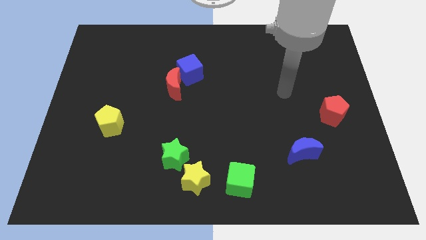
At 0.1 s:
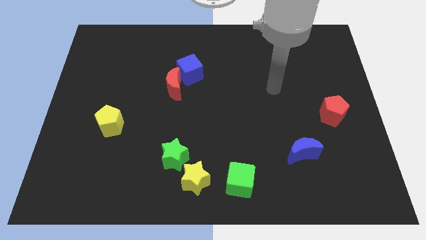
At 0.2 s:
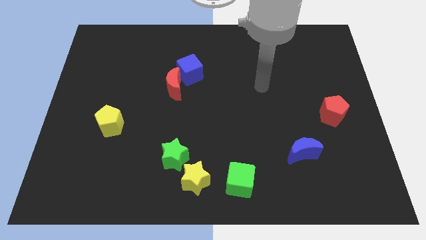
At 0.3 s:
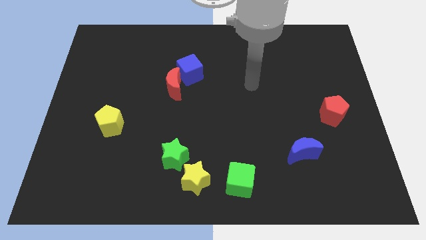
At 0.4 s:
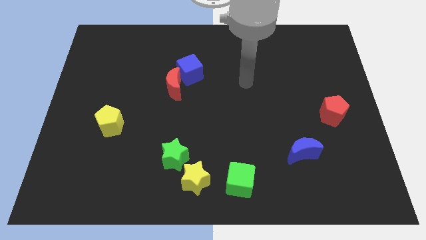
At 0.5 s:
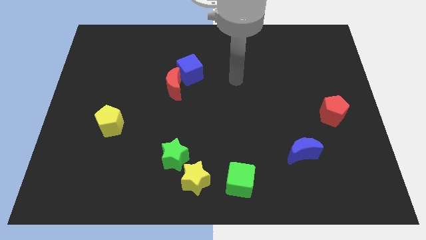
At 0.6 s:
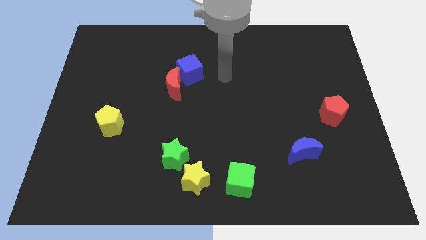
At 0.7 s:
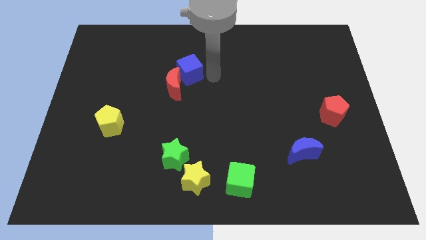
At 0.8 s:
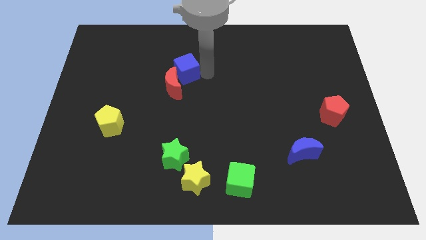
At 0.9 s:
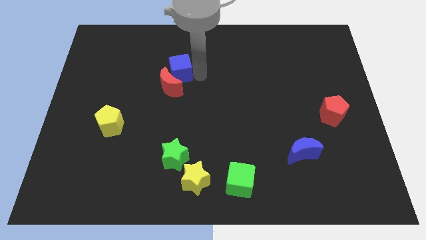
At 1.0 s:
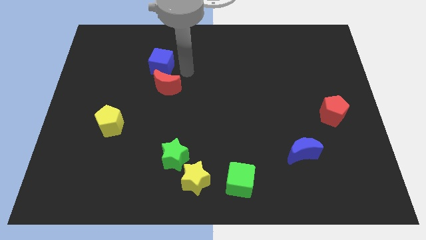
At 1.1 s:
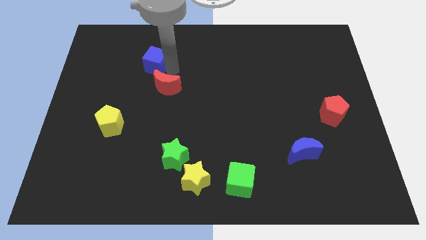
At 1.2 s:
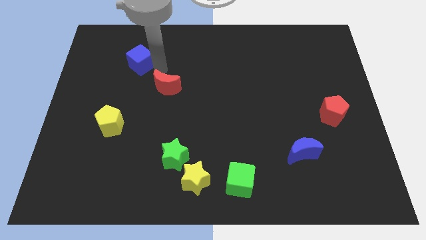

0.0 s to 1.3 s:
separate the red moon from the blue cube

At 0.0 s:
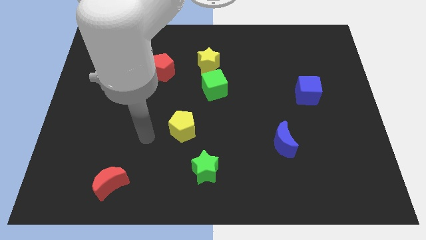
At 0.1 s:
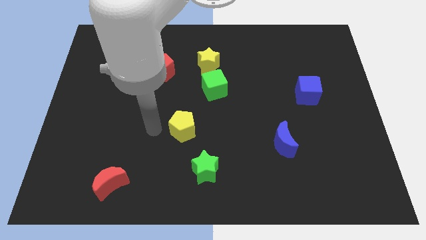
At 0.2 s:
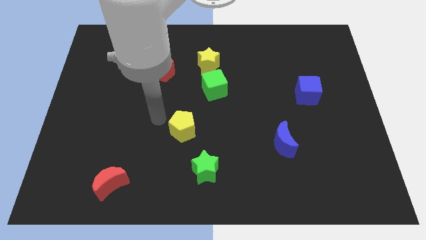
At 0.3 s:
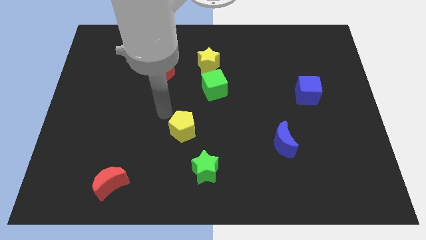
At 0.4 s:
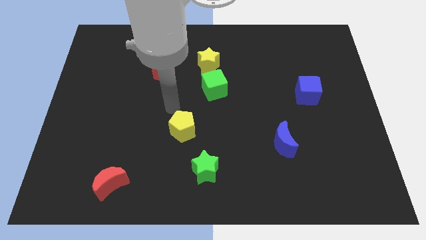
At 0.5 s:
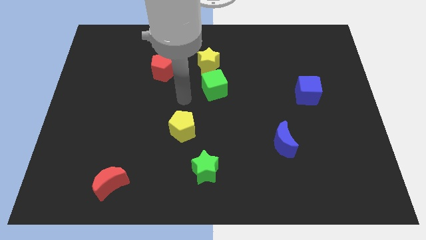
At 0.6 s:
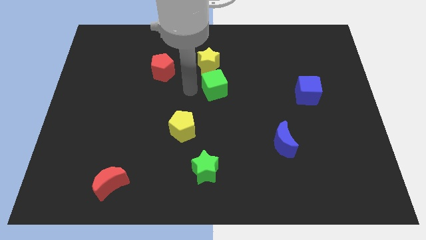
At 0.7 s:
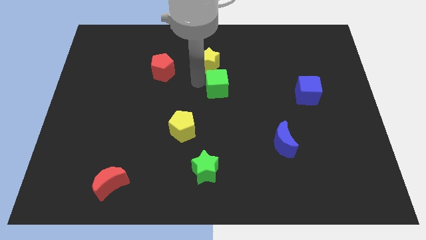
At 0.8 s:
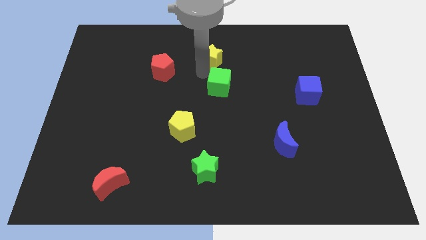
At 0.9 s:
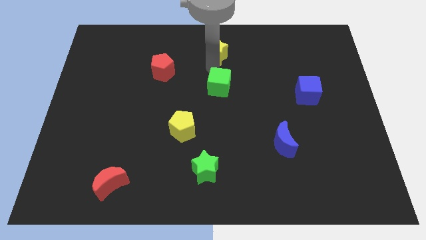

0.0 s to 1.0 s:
move the green cube away from the yellow star

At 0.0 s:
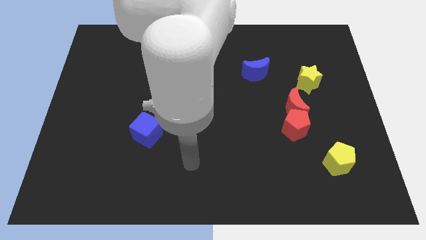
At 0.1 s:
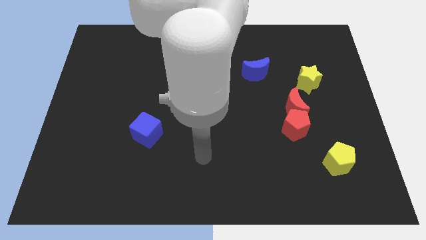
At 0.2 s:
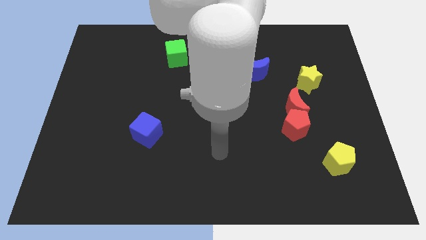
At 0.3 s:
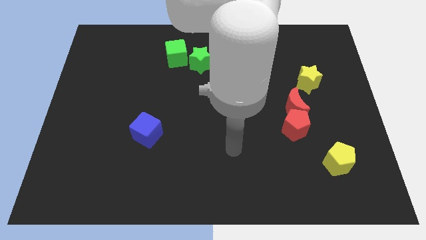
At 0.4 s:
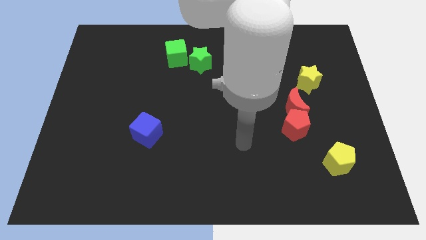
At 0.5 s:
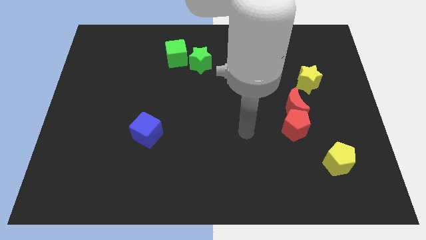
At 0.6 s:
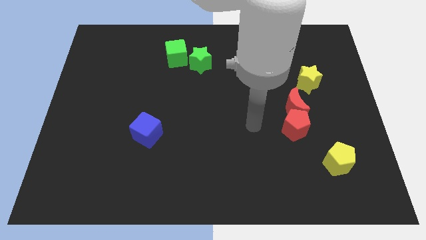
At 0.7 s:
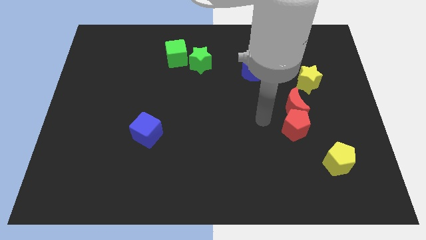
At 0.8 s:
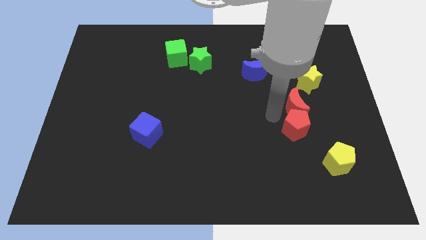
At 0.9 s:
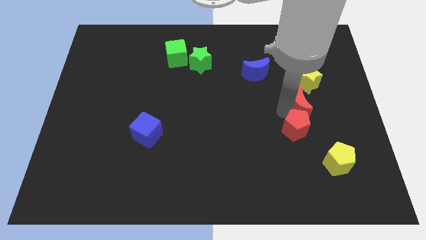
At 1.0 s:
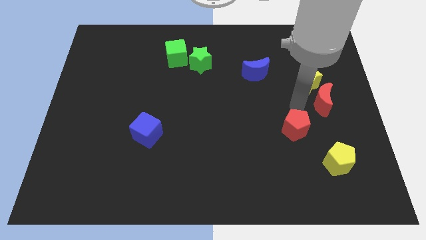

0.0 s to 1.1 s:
move the red pentagon away from the red moon

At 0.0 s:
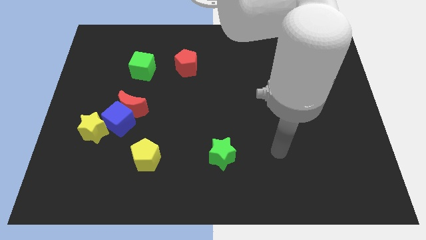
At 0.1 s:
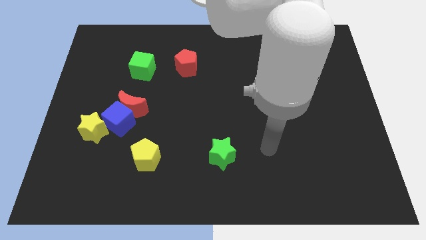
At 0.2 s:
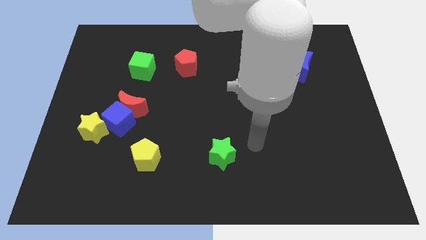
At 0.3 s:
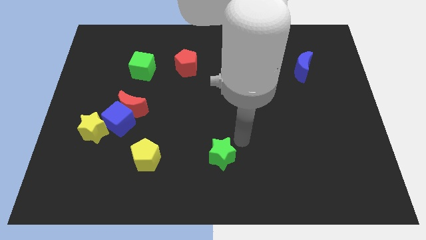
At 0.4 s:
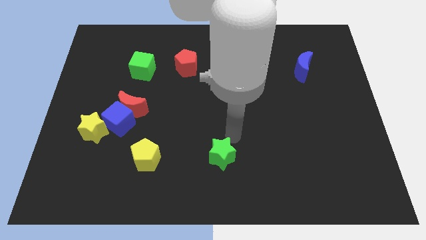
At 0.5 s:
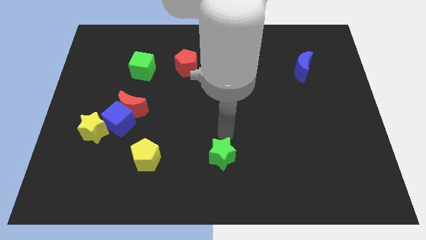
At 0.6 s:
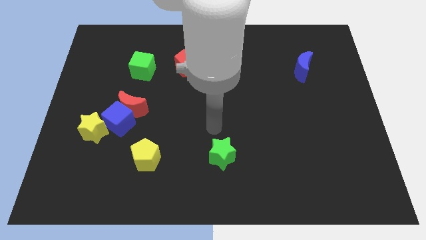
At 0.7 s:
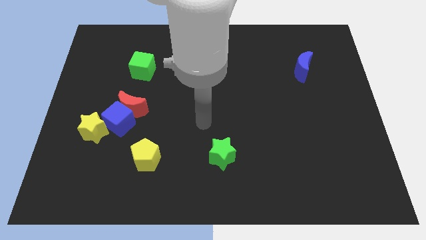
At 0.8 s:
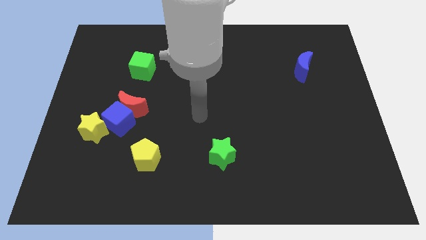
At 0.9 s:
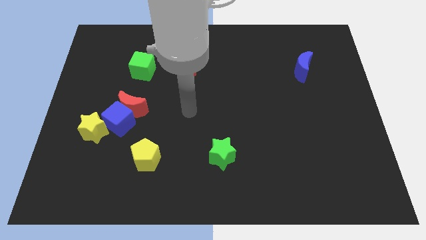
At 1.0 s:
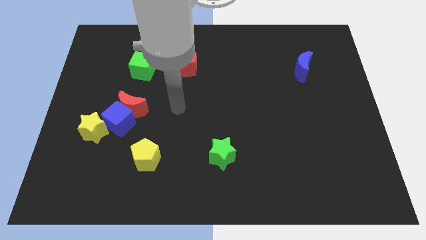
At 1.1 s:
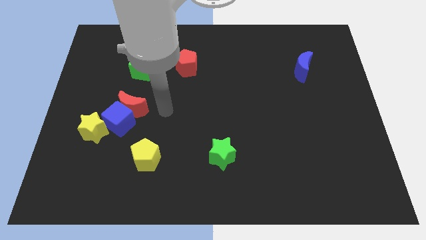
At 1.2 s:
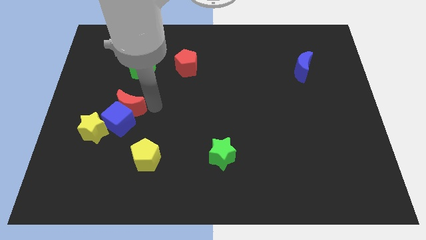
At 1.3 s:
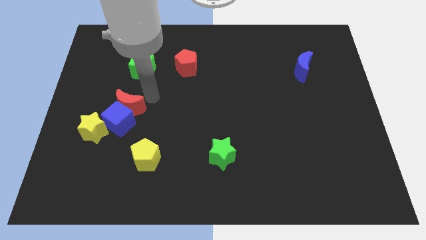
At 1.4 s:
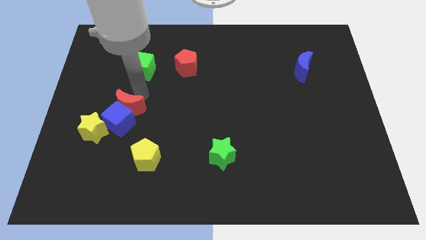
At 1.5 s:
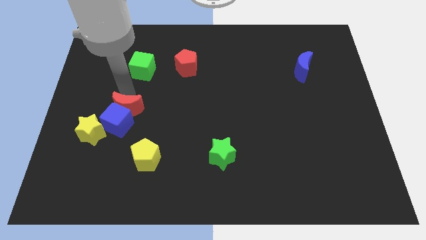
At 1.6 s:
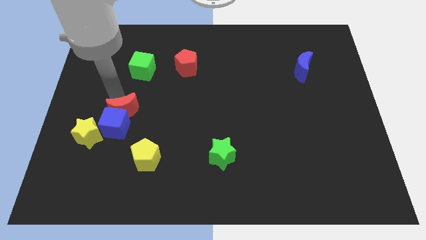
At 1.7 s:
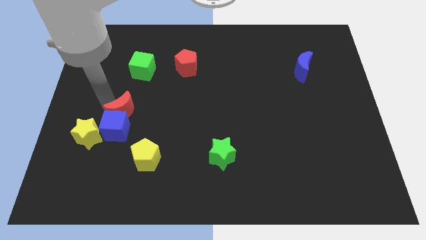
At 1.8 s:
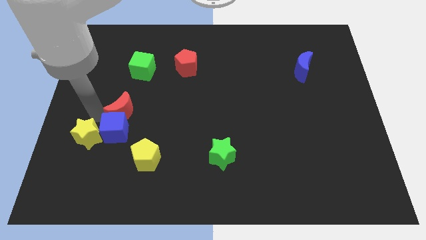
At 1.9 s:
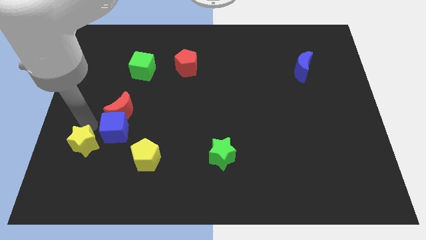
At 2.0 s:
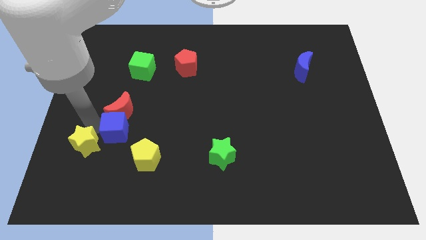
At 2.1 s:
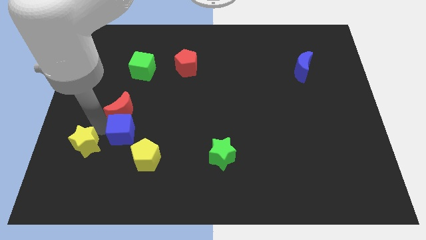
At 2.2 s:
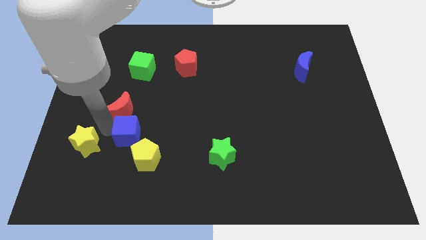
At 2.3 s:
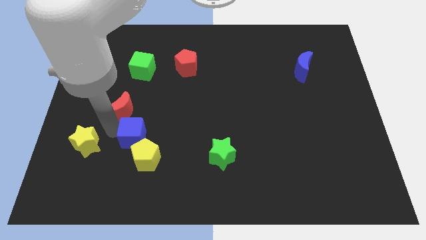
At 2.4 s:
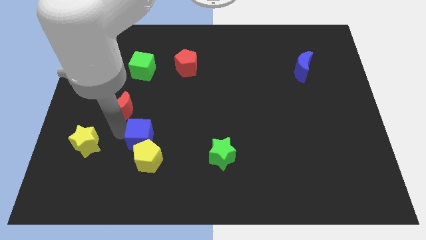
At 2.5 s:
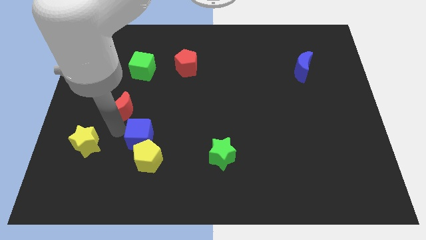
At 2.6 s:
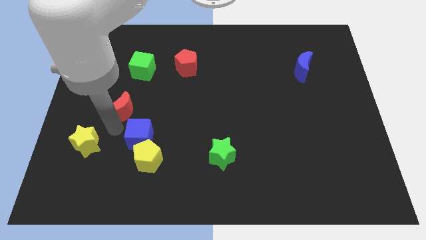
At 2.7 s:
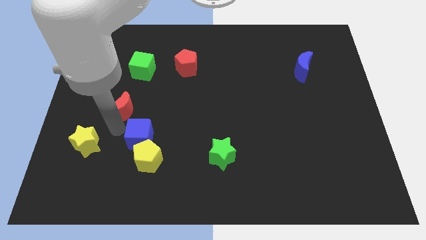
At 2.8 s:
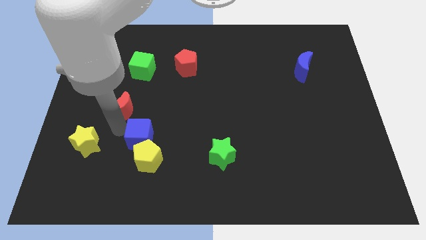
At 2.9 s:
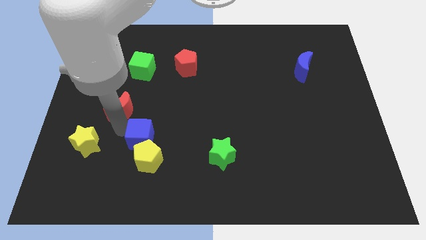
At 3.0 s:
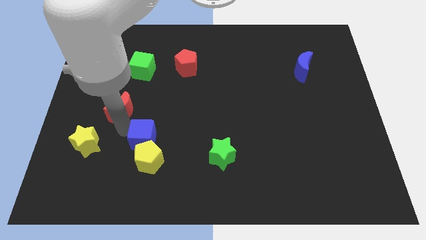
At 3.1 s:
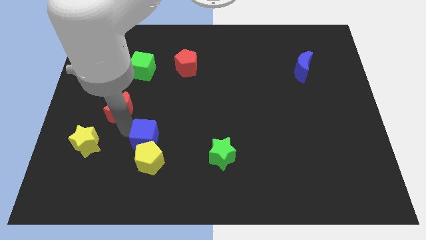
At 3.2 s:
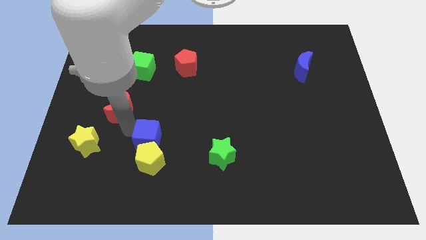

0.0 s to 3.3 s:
separate the blue cube from the red moon and yellow star

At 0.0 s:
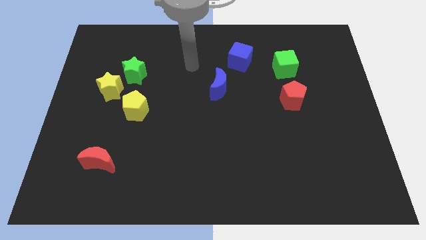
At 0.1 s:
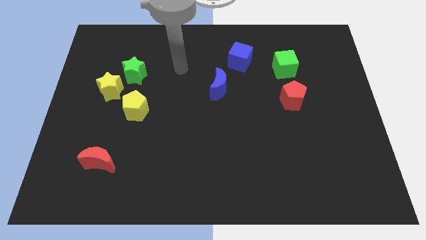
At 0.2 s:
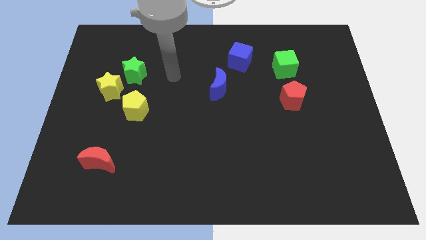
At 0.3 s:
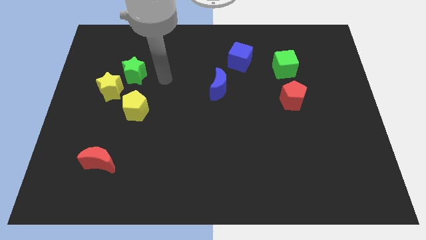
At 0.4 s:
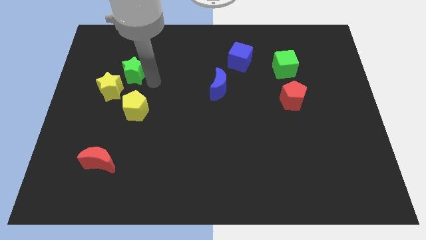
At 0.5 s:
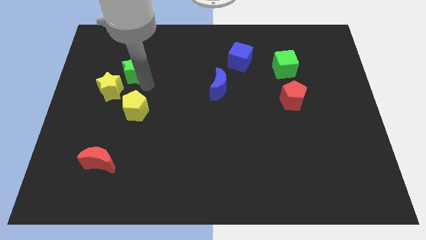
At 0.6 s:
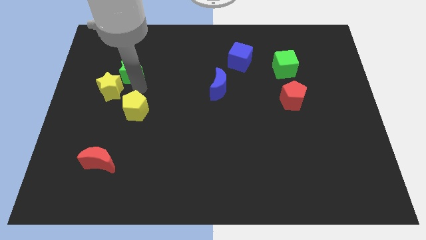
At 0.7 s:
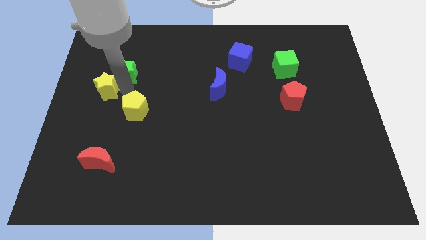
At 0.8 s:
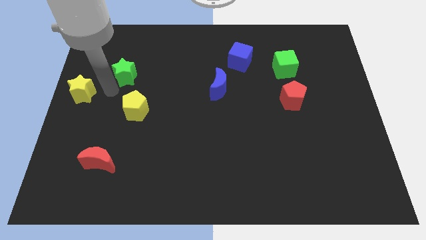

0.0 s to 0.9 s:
move the green star away from the yellow star

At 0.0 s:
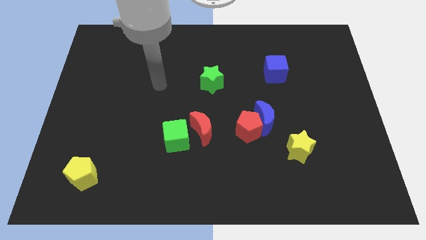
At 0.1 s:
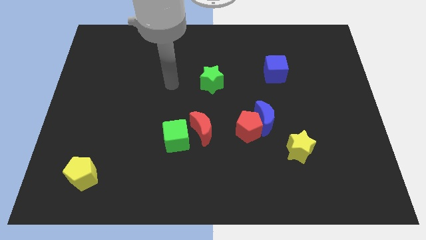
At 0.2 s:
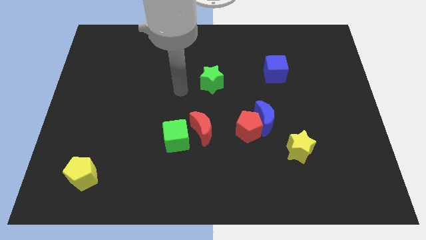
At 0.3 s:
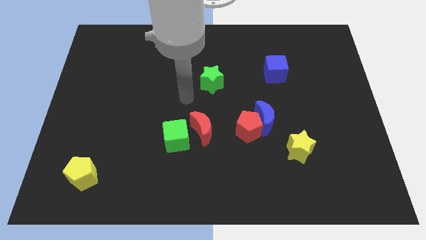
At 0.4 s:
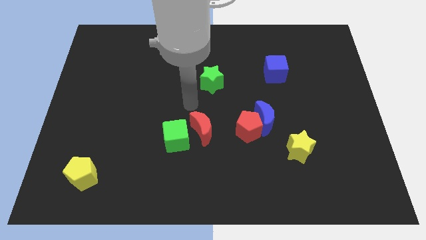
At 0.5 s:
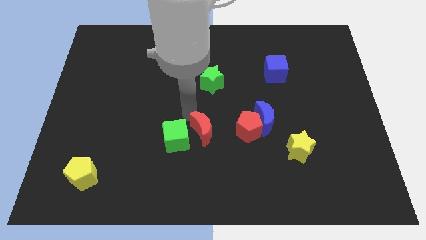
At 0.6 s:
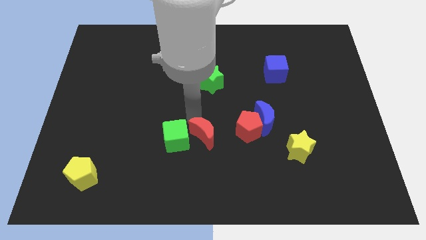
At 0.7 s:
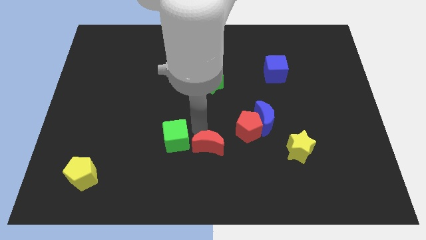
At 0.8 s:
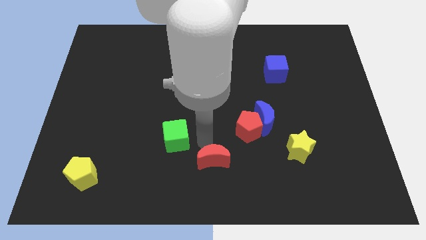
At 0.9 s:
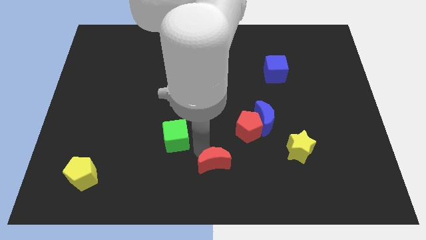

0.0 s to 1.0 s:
separate the green cube from the red moon

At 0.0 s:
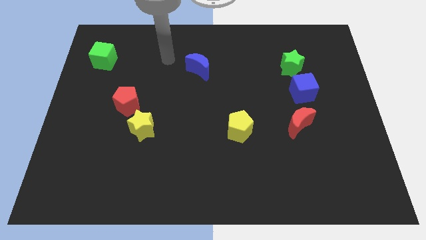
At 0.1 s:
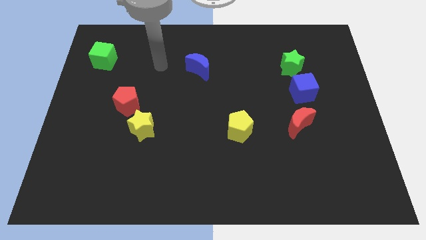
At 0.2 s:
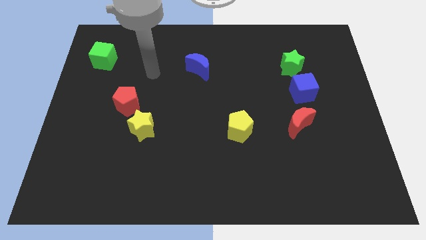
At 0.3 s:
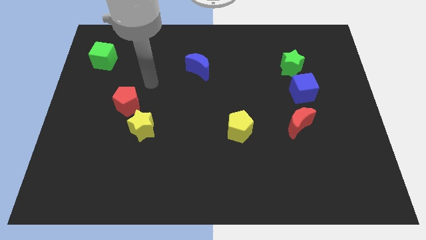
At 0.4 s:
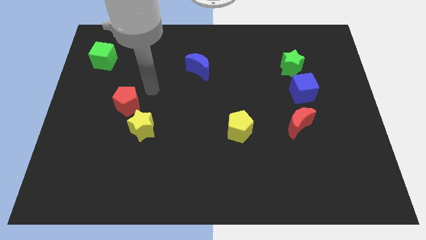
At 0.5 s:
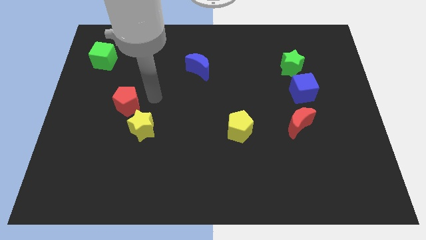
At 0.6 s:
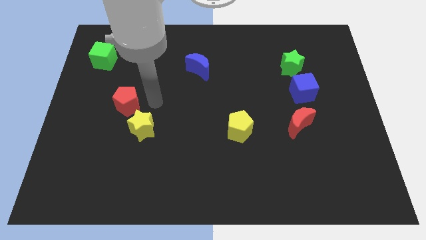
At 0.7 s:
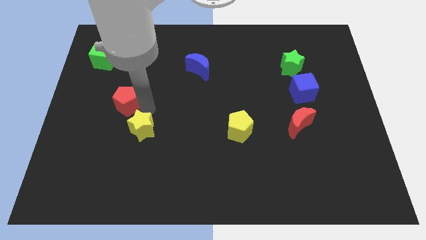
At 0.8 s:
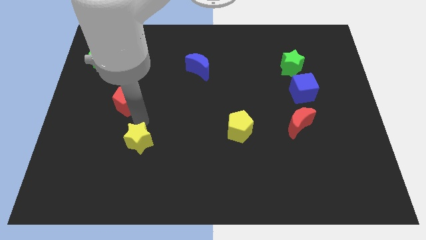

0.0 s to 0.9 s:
separate the red pentagon from the yellow star
